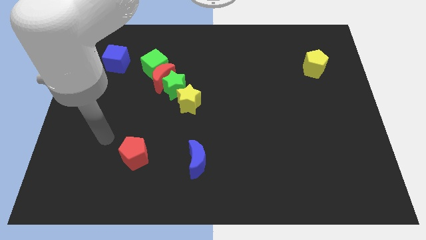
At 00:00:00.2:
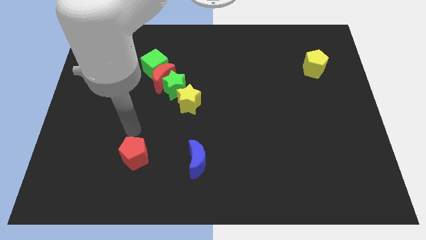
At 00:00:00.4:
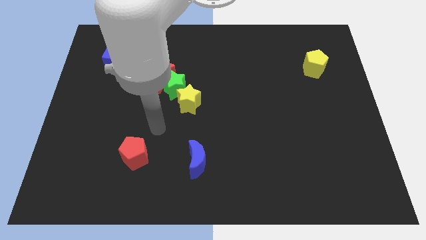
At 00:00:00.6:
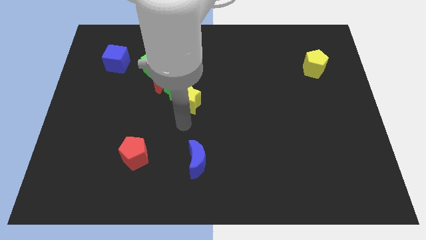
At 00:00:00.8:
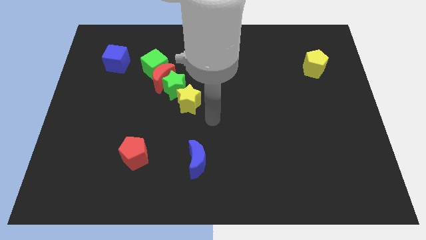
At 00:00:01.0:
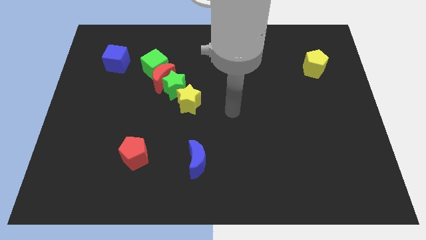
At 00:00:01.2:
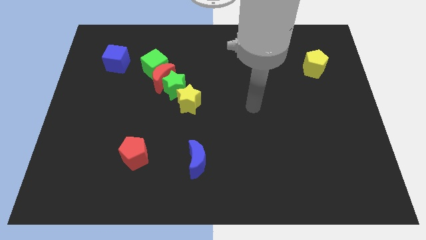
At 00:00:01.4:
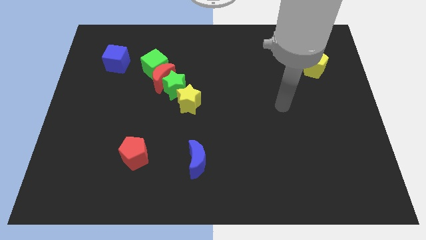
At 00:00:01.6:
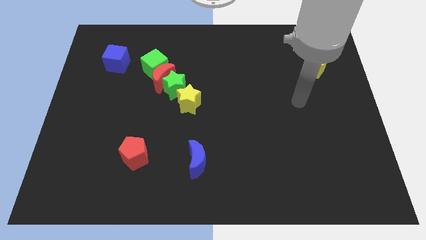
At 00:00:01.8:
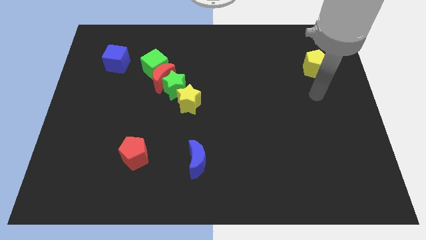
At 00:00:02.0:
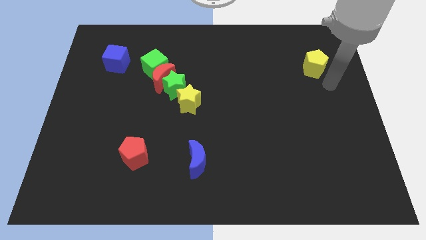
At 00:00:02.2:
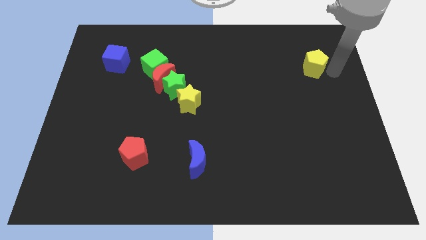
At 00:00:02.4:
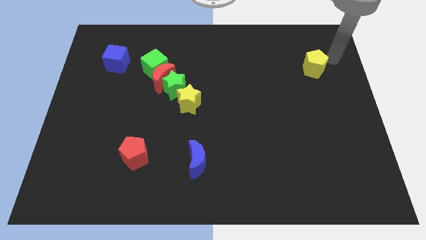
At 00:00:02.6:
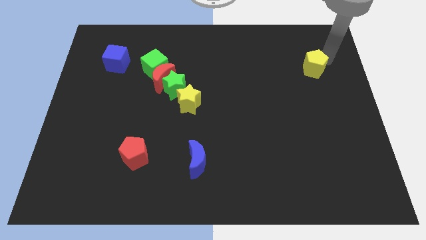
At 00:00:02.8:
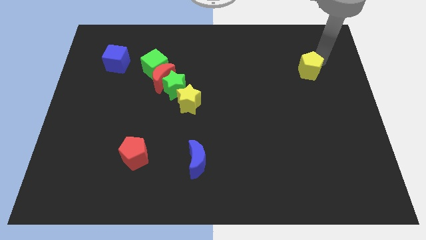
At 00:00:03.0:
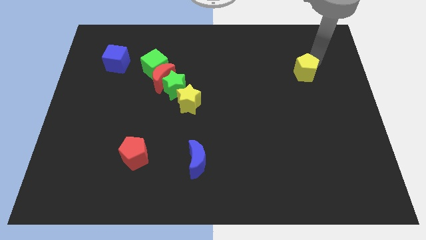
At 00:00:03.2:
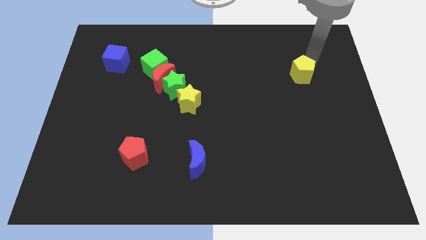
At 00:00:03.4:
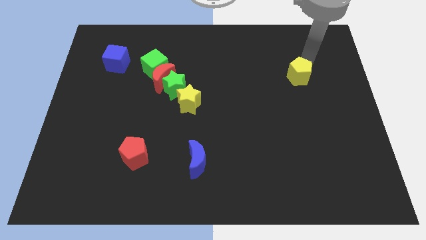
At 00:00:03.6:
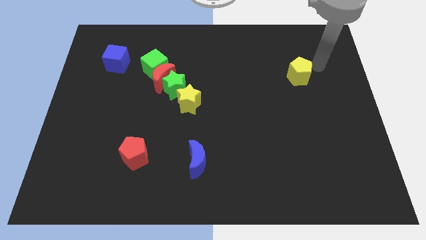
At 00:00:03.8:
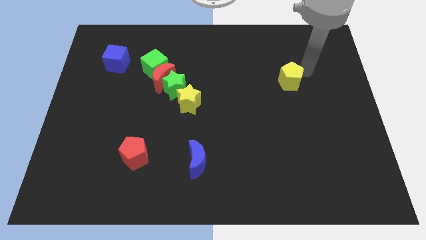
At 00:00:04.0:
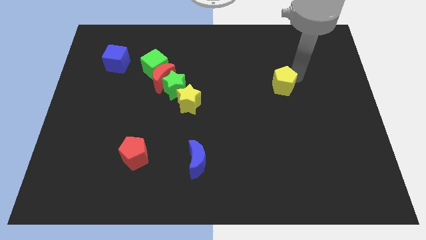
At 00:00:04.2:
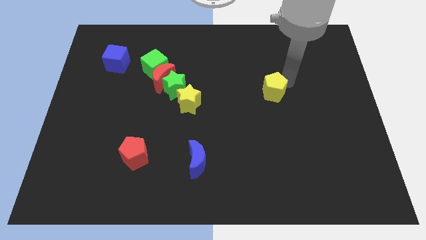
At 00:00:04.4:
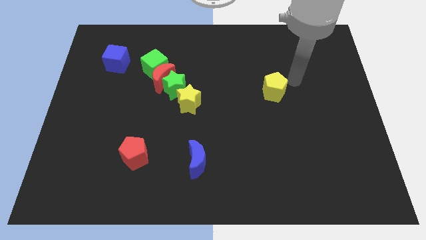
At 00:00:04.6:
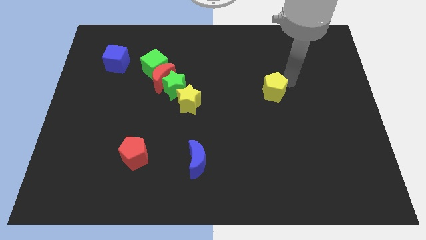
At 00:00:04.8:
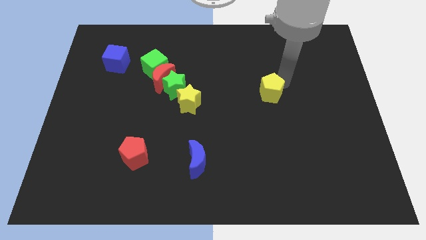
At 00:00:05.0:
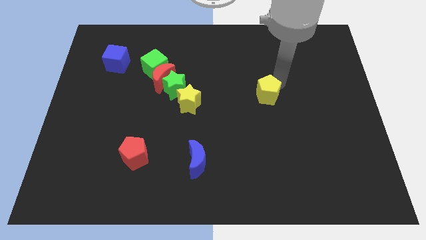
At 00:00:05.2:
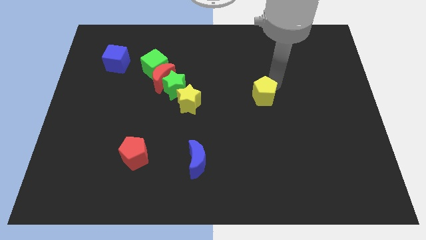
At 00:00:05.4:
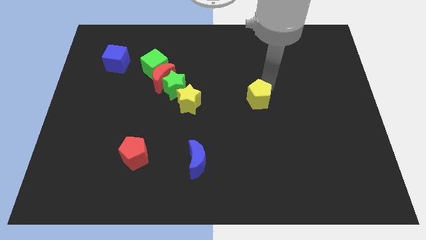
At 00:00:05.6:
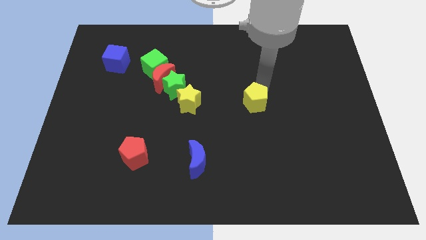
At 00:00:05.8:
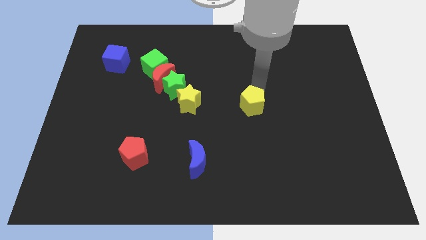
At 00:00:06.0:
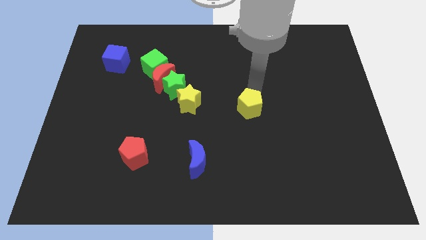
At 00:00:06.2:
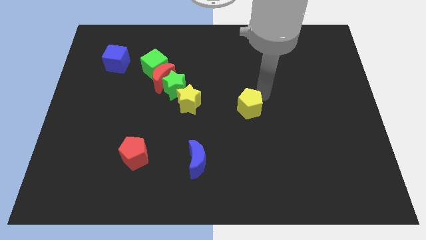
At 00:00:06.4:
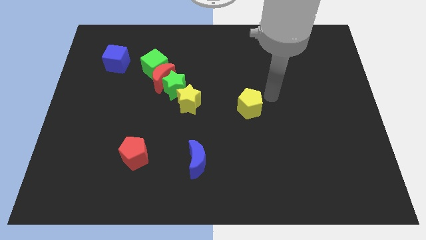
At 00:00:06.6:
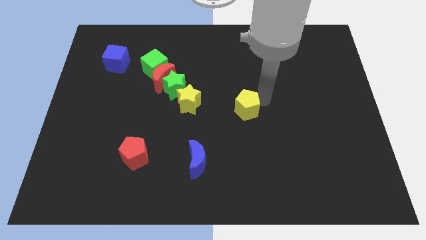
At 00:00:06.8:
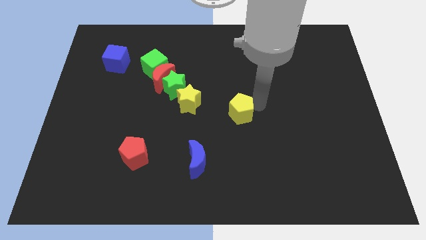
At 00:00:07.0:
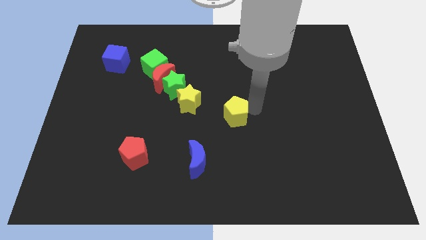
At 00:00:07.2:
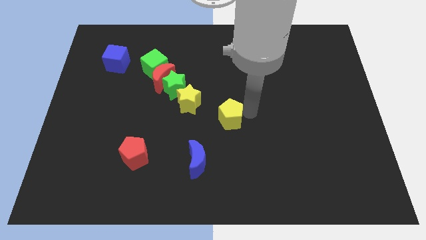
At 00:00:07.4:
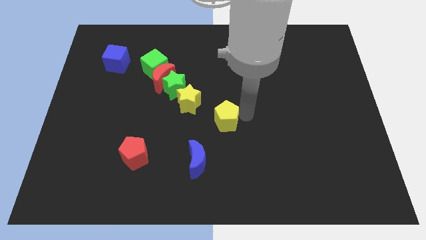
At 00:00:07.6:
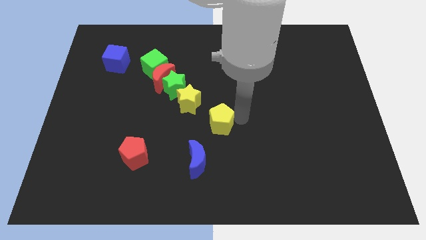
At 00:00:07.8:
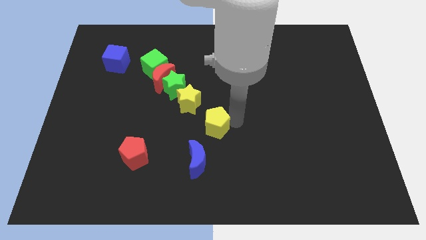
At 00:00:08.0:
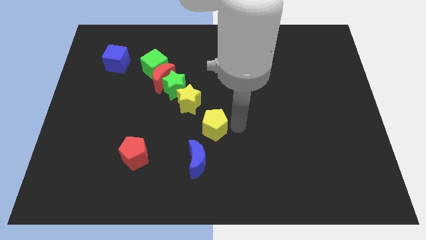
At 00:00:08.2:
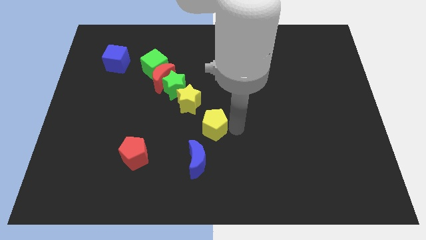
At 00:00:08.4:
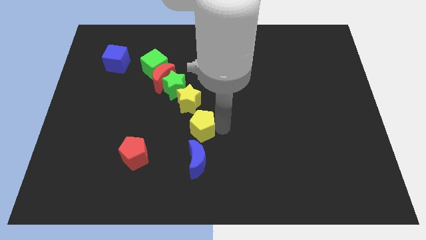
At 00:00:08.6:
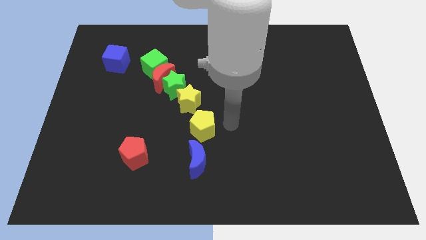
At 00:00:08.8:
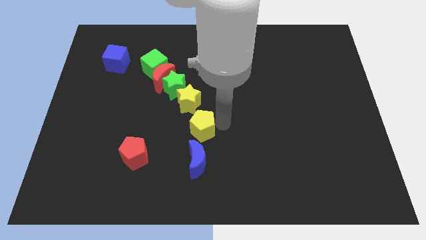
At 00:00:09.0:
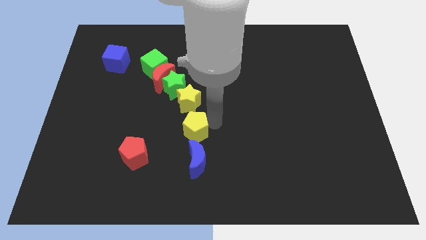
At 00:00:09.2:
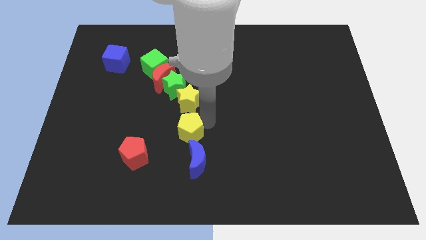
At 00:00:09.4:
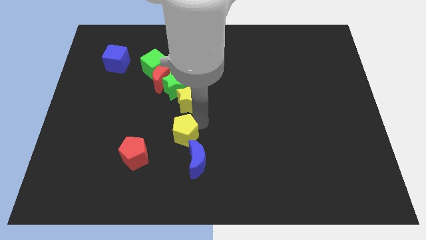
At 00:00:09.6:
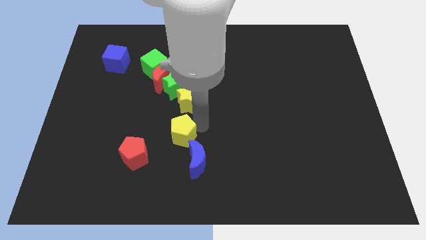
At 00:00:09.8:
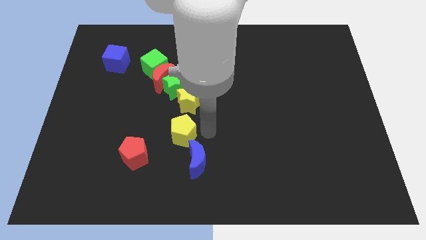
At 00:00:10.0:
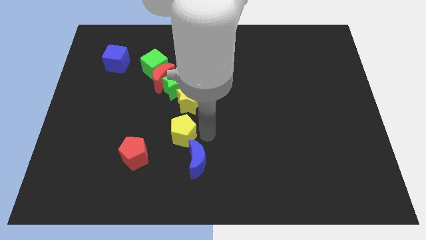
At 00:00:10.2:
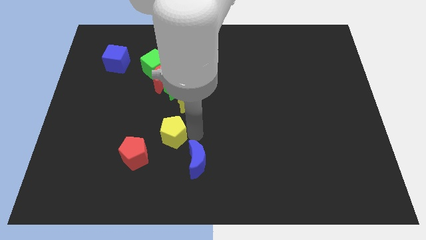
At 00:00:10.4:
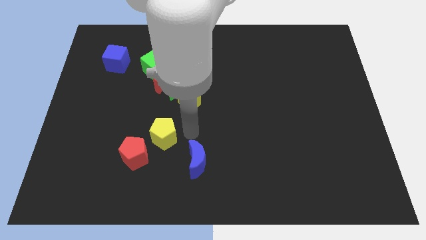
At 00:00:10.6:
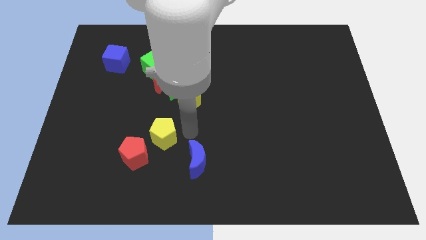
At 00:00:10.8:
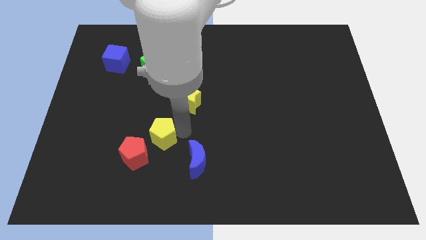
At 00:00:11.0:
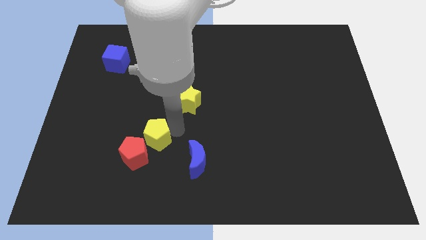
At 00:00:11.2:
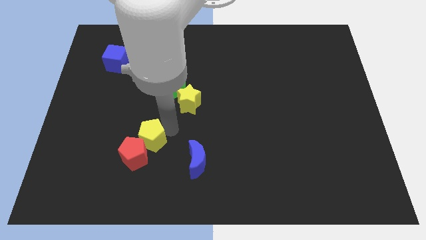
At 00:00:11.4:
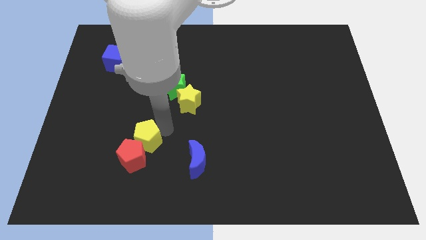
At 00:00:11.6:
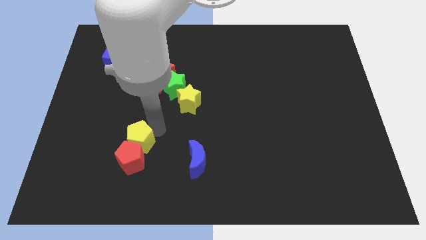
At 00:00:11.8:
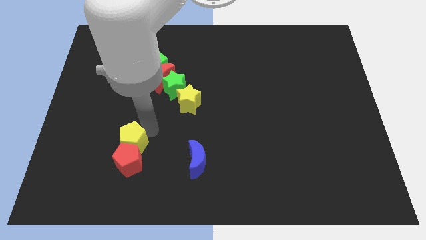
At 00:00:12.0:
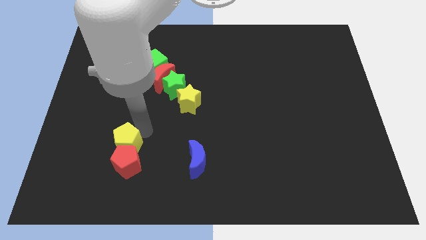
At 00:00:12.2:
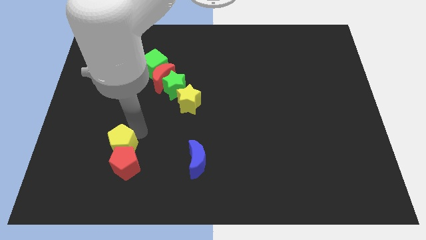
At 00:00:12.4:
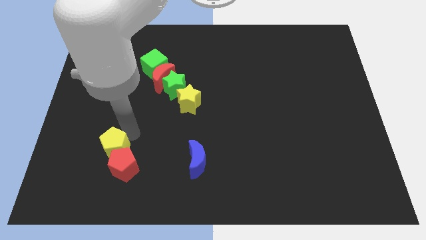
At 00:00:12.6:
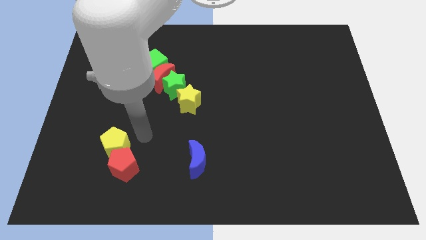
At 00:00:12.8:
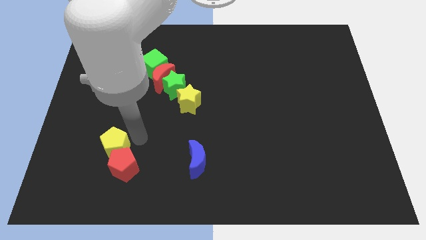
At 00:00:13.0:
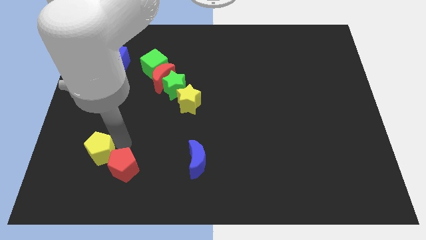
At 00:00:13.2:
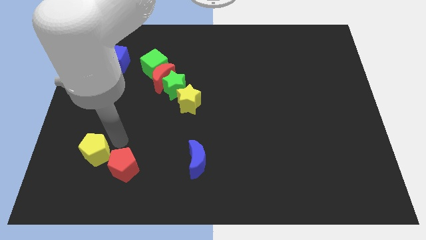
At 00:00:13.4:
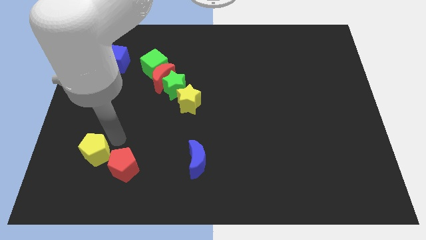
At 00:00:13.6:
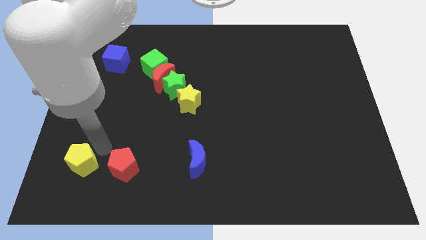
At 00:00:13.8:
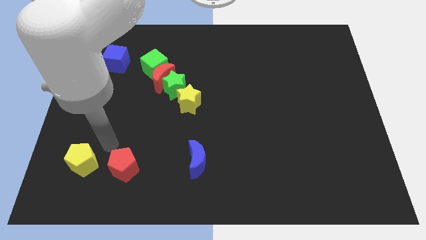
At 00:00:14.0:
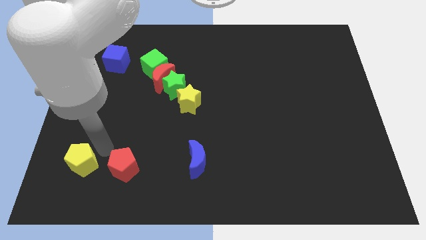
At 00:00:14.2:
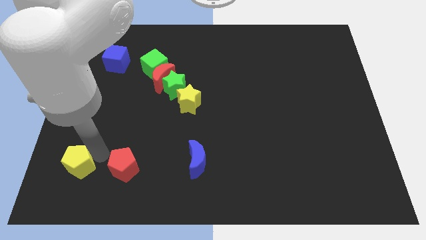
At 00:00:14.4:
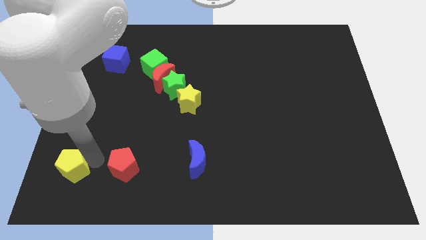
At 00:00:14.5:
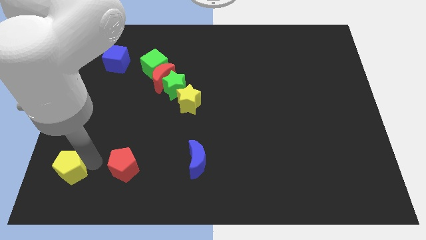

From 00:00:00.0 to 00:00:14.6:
slide the yellow pentagon to the bottom left of the board

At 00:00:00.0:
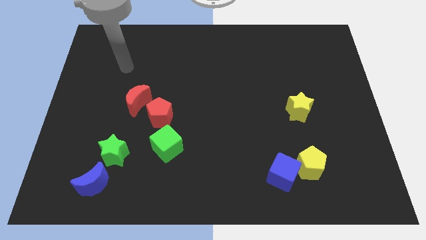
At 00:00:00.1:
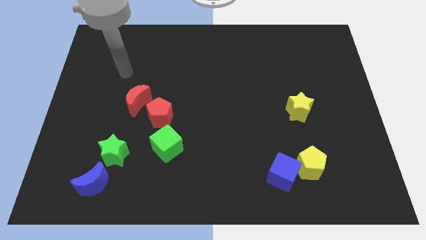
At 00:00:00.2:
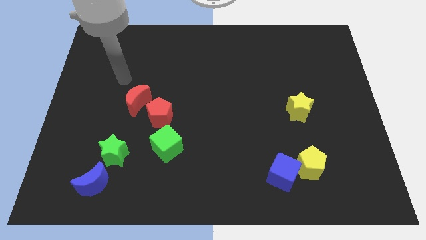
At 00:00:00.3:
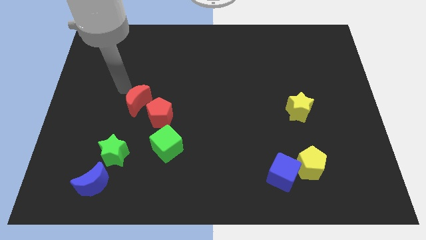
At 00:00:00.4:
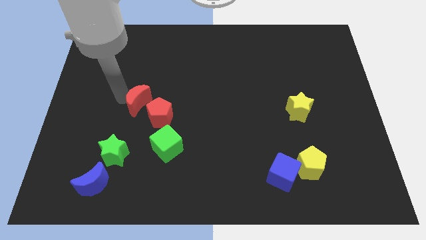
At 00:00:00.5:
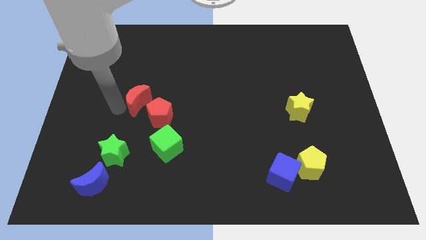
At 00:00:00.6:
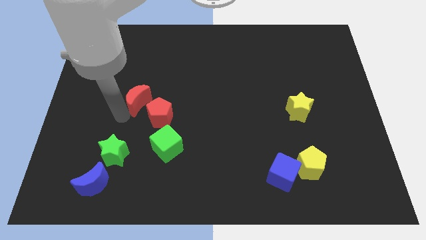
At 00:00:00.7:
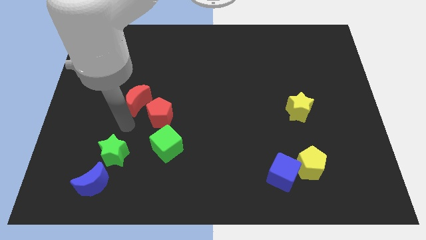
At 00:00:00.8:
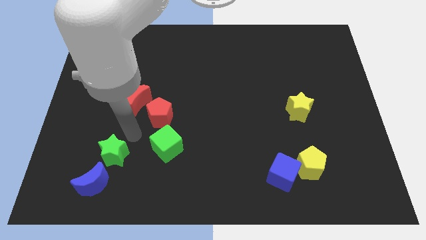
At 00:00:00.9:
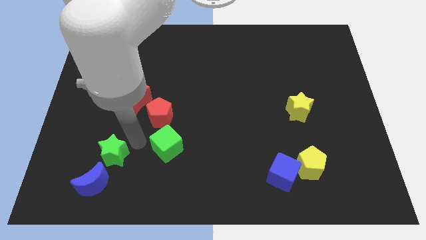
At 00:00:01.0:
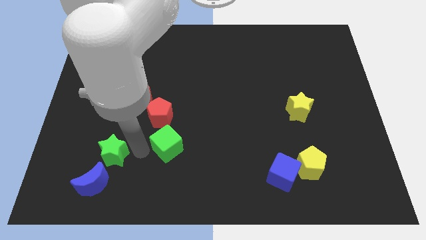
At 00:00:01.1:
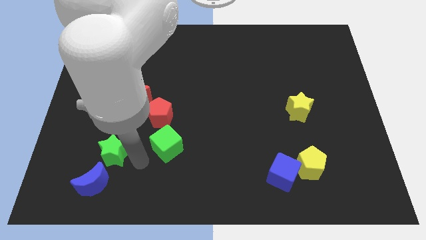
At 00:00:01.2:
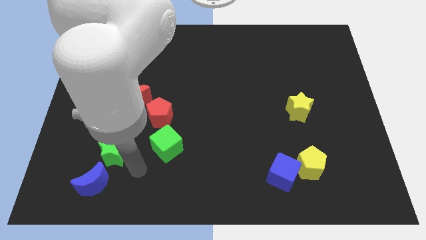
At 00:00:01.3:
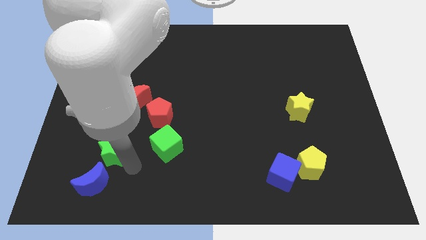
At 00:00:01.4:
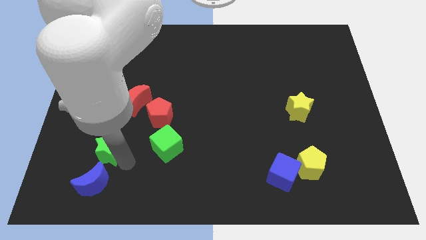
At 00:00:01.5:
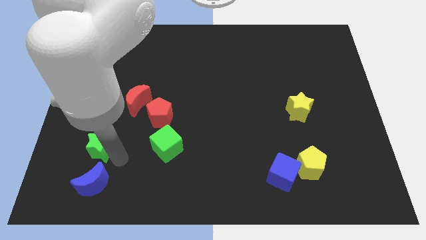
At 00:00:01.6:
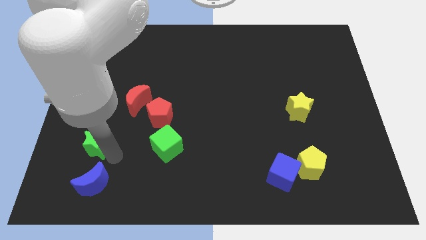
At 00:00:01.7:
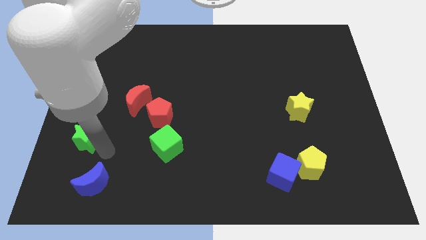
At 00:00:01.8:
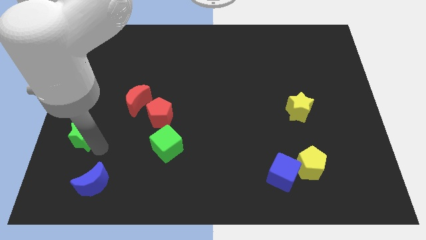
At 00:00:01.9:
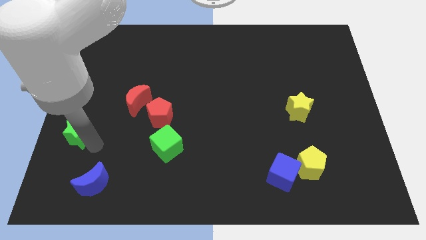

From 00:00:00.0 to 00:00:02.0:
put the green star to the left side of the board
